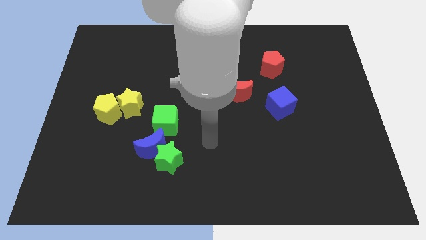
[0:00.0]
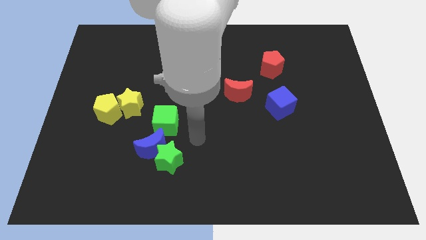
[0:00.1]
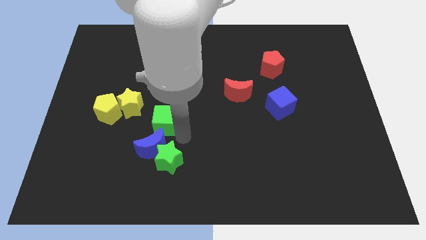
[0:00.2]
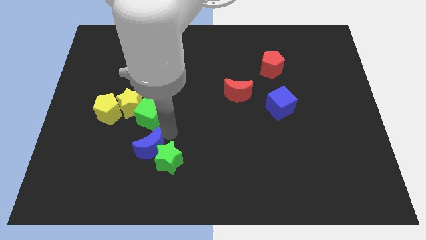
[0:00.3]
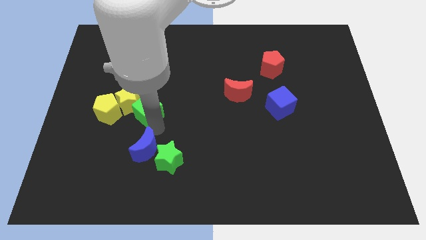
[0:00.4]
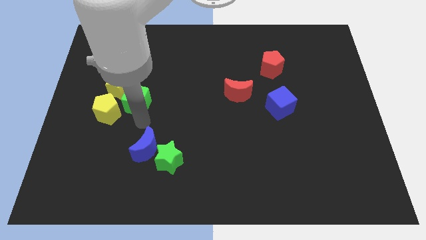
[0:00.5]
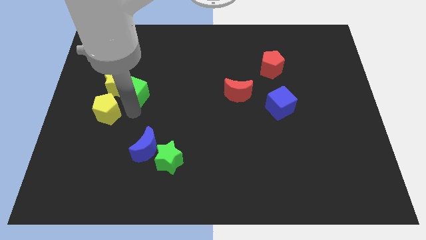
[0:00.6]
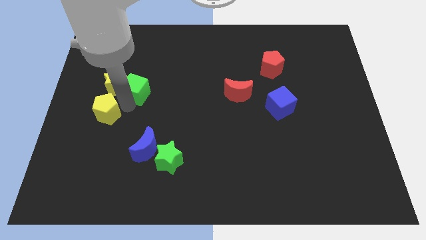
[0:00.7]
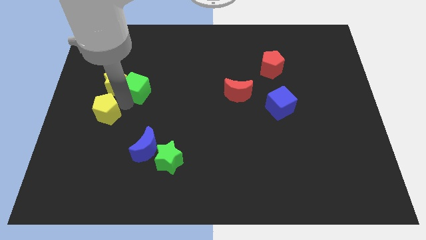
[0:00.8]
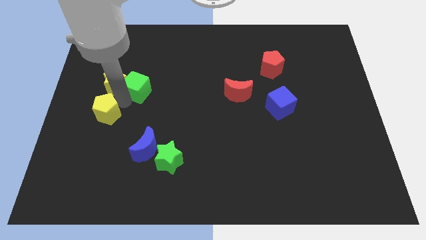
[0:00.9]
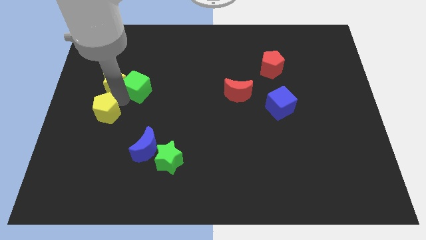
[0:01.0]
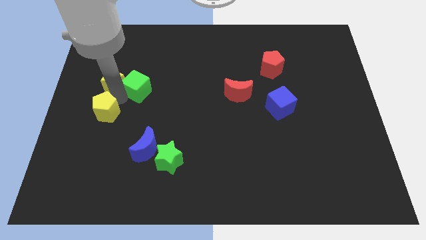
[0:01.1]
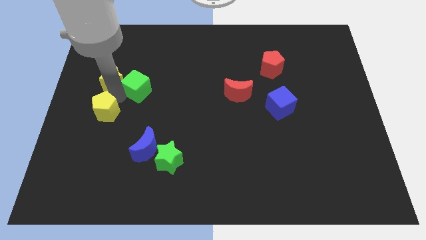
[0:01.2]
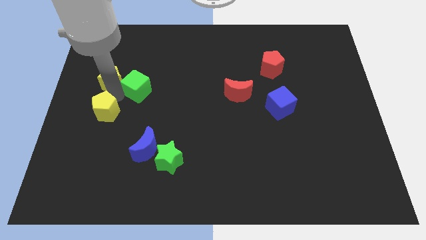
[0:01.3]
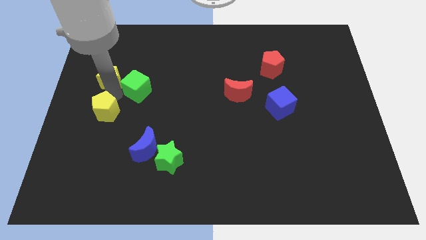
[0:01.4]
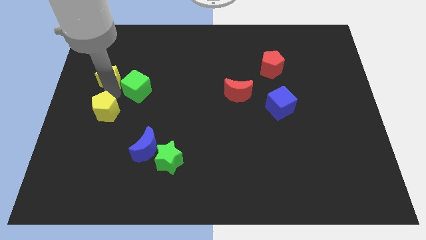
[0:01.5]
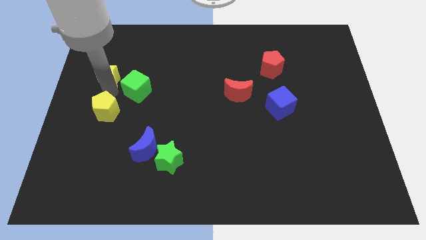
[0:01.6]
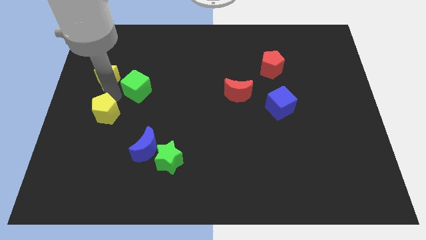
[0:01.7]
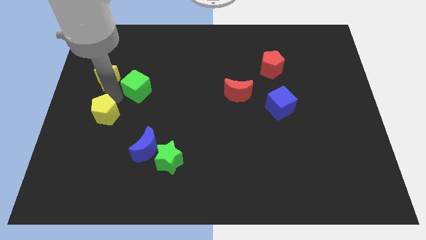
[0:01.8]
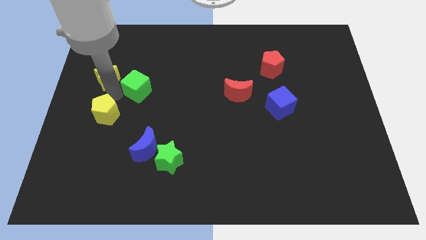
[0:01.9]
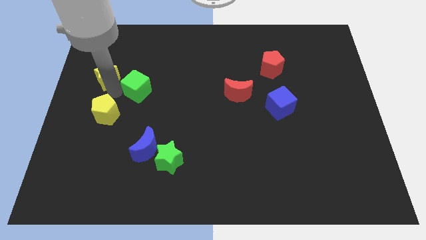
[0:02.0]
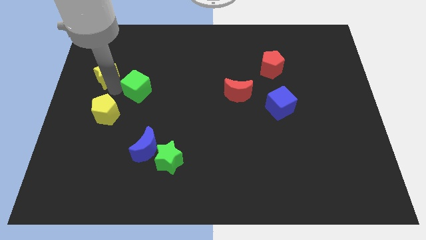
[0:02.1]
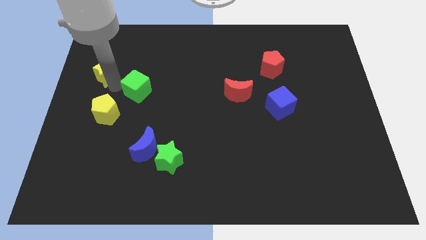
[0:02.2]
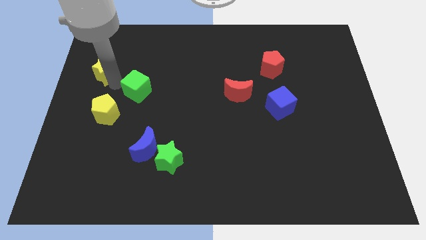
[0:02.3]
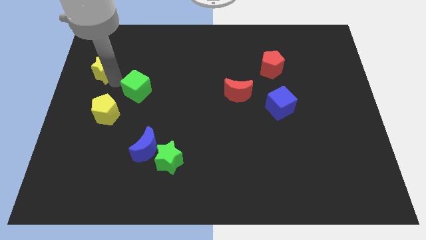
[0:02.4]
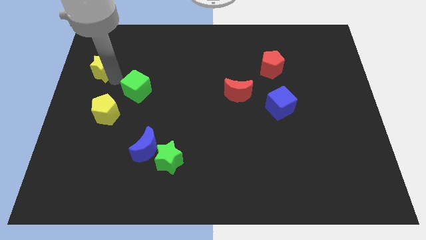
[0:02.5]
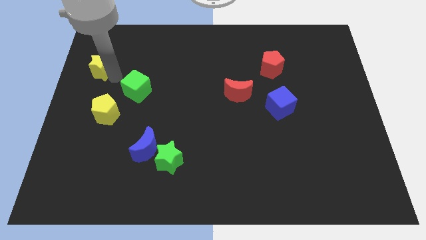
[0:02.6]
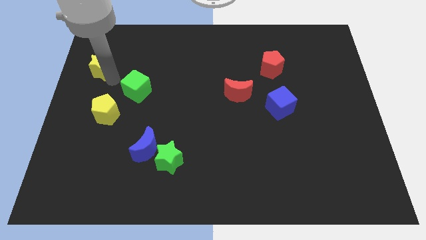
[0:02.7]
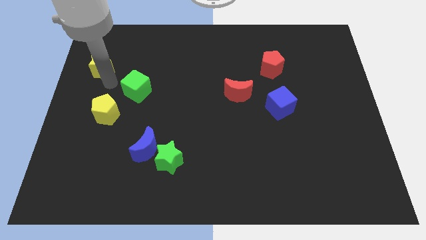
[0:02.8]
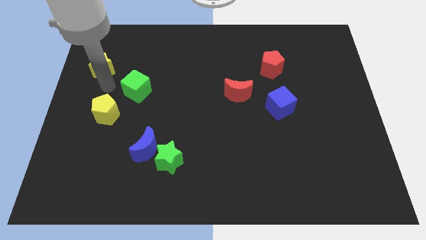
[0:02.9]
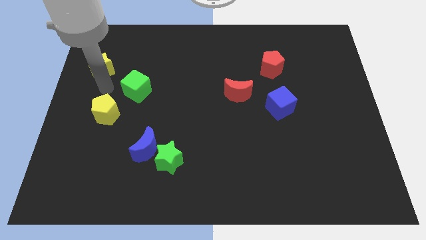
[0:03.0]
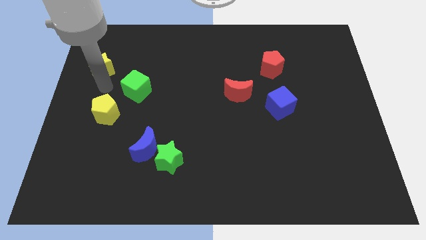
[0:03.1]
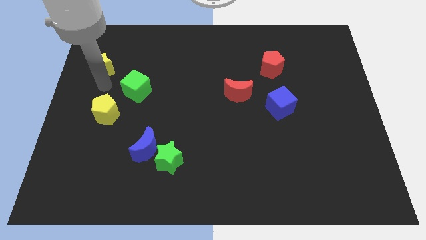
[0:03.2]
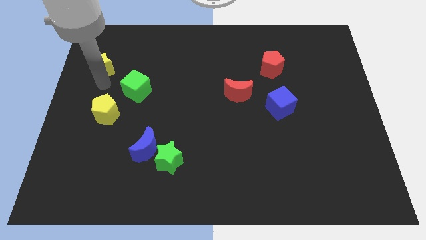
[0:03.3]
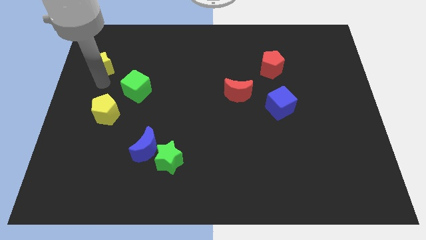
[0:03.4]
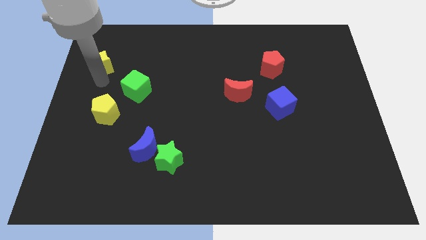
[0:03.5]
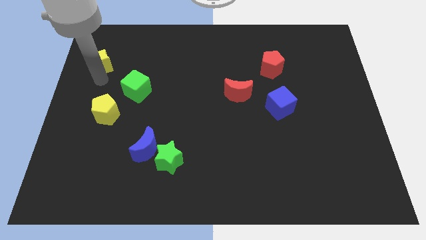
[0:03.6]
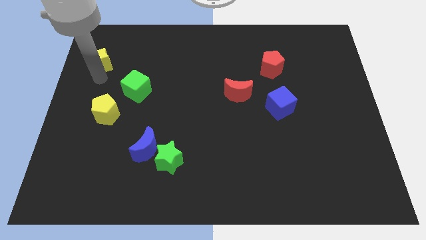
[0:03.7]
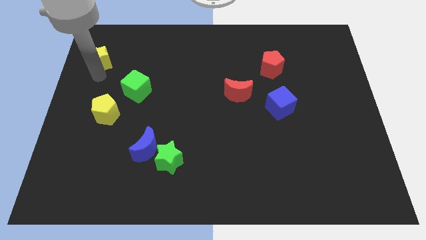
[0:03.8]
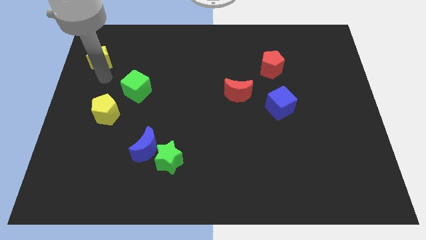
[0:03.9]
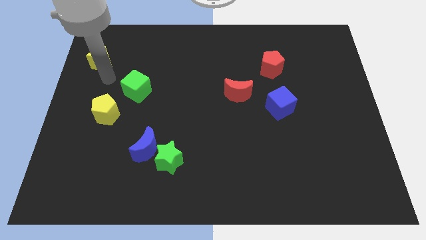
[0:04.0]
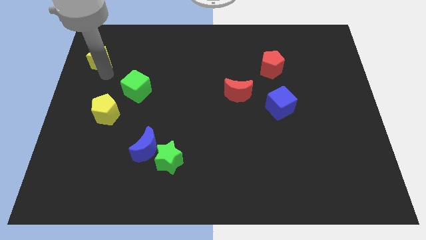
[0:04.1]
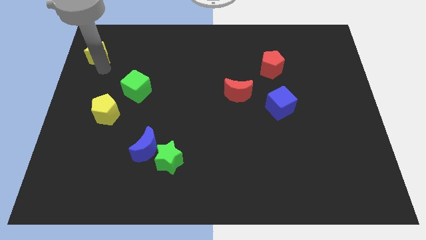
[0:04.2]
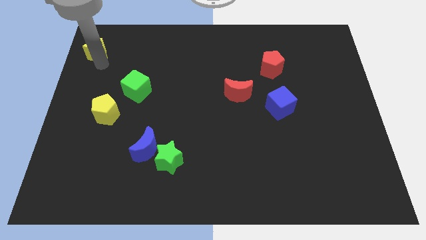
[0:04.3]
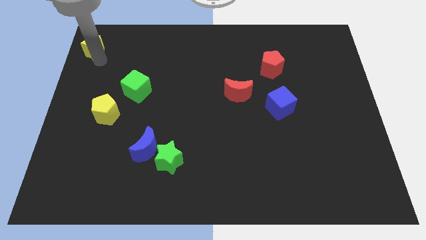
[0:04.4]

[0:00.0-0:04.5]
slide the yellow star to the upper left corner

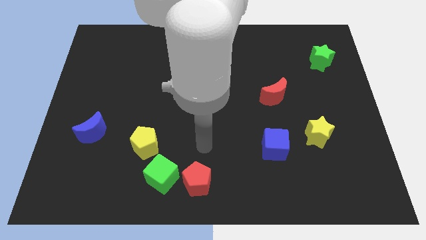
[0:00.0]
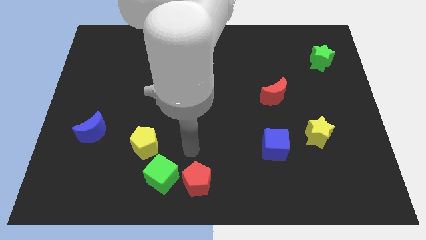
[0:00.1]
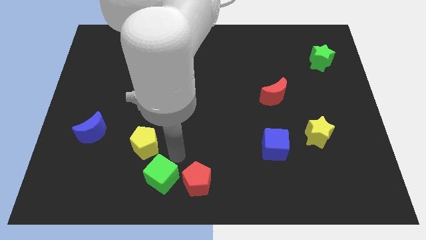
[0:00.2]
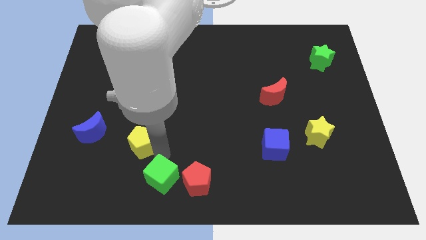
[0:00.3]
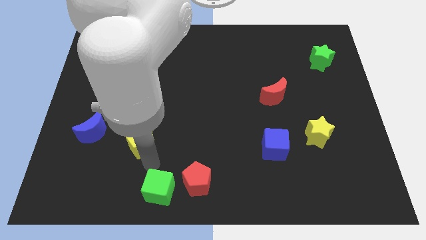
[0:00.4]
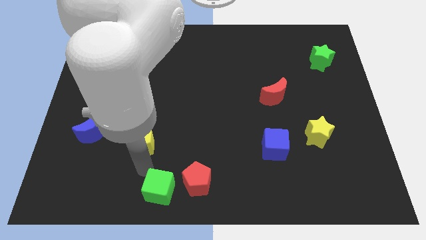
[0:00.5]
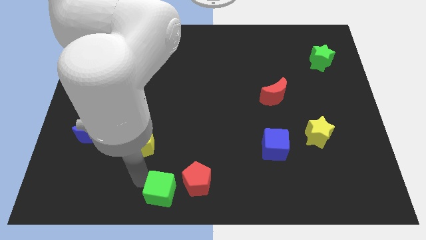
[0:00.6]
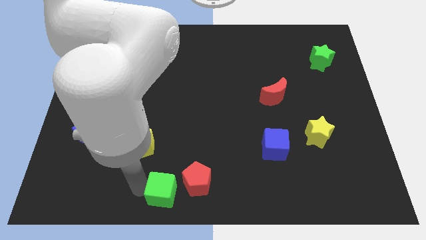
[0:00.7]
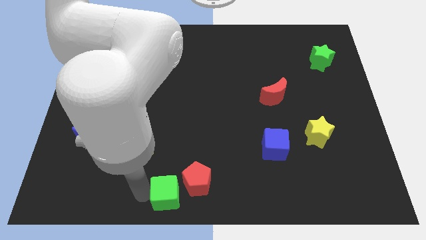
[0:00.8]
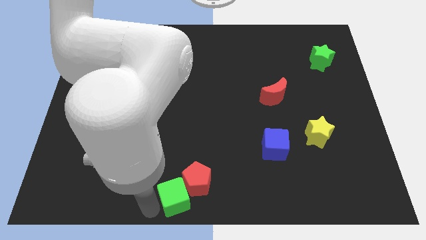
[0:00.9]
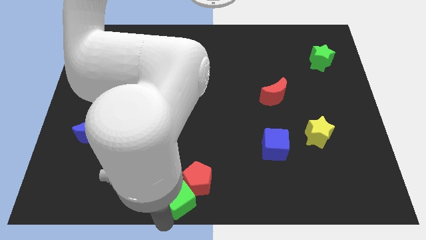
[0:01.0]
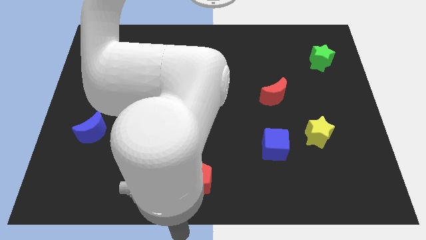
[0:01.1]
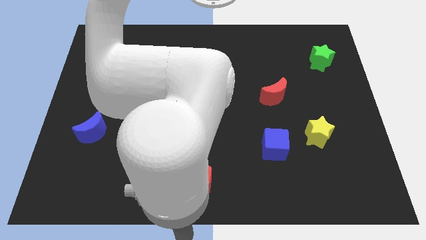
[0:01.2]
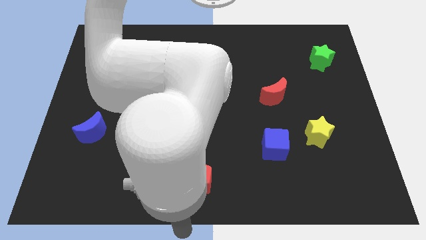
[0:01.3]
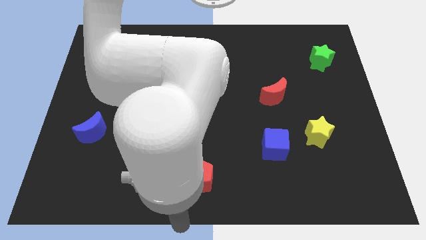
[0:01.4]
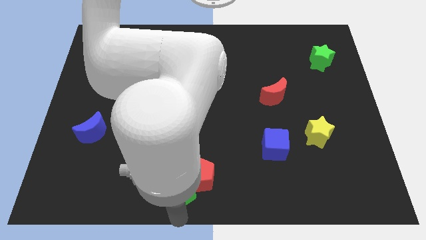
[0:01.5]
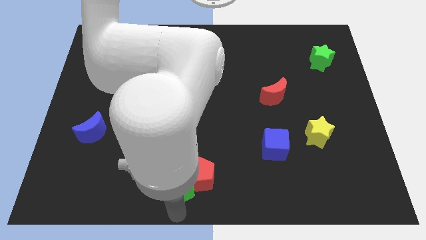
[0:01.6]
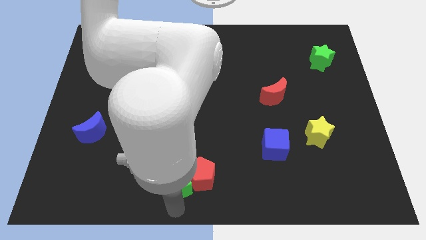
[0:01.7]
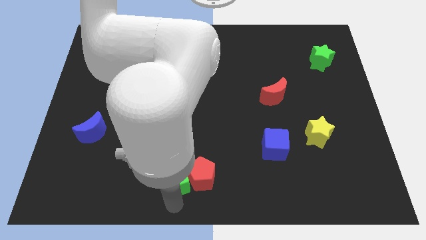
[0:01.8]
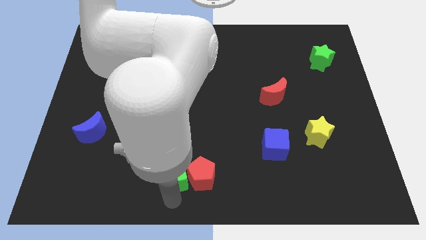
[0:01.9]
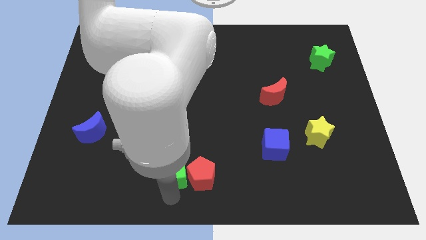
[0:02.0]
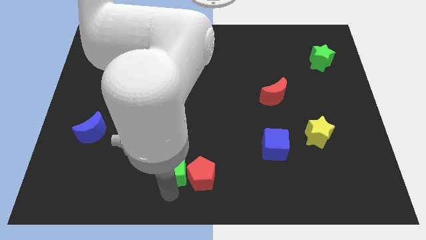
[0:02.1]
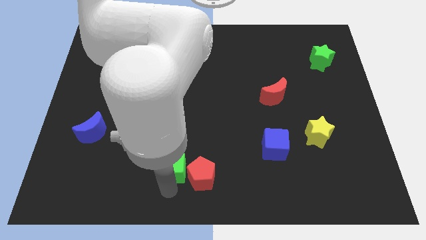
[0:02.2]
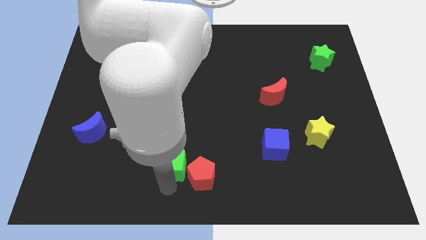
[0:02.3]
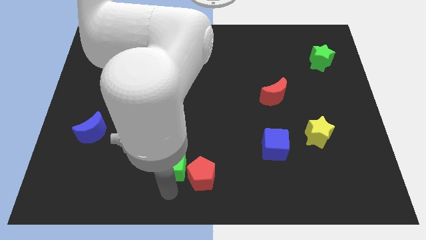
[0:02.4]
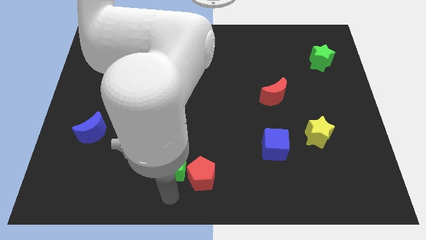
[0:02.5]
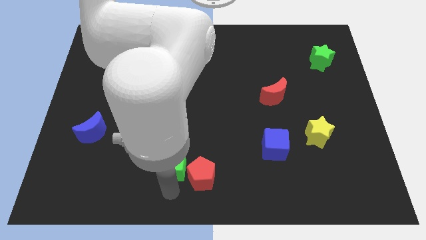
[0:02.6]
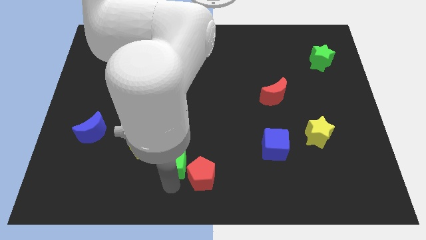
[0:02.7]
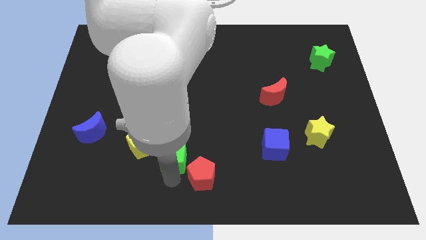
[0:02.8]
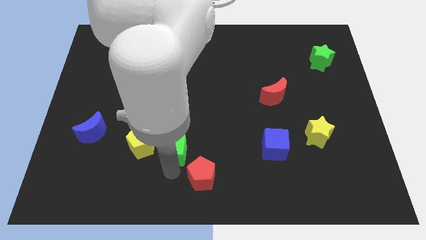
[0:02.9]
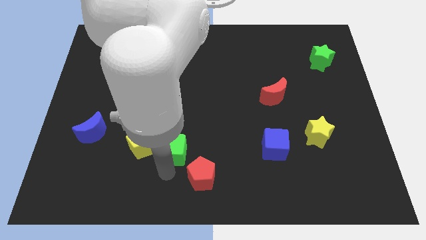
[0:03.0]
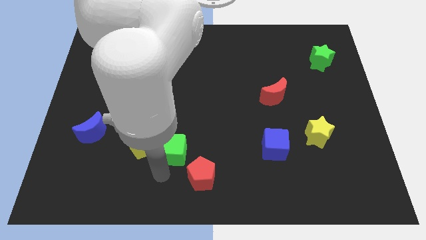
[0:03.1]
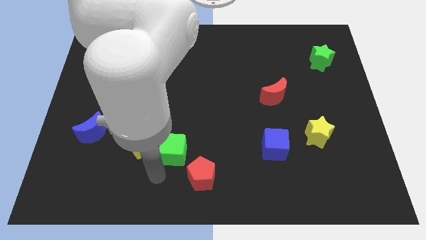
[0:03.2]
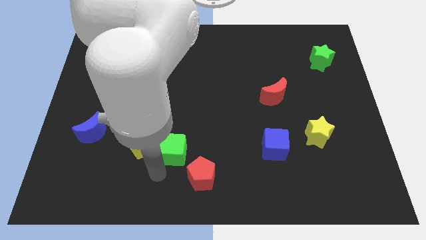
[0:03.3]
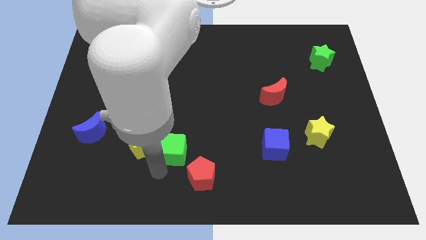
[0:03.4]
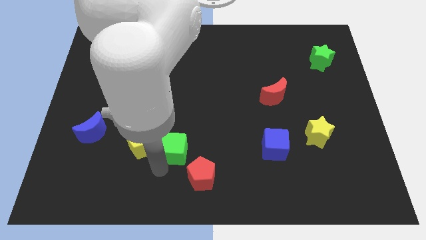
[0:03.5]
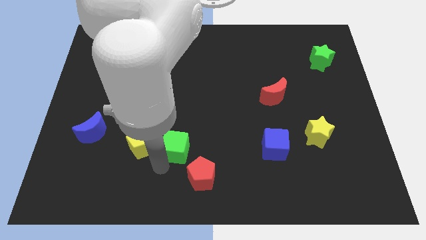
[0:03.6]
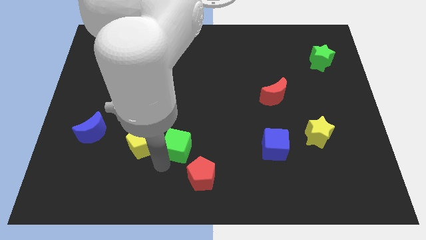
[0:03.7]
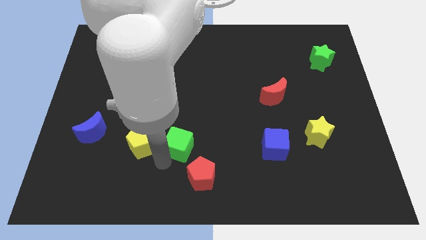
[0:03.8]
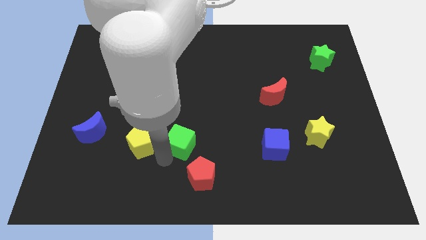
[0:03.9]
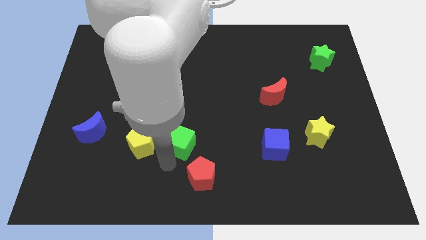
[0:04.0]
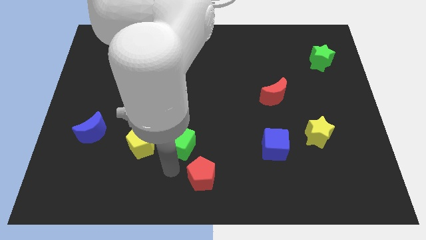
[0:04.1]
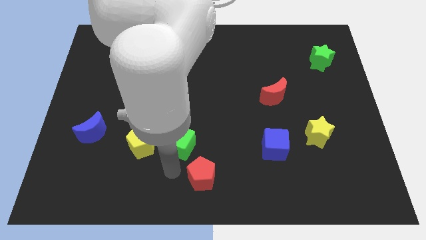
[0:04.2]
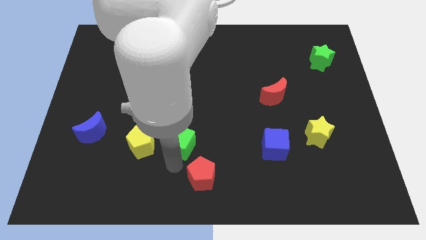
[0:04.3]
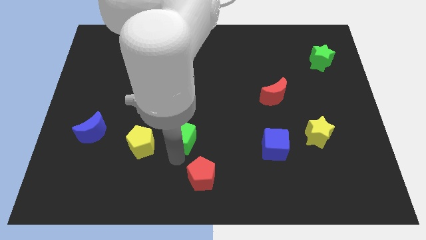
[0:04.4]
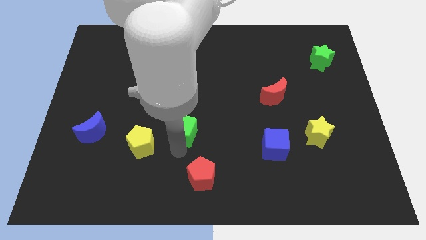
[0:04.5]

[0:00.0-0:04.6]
put the green cube to the middle of the board
